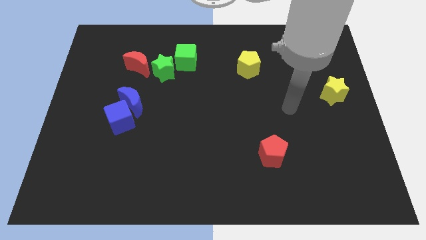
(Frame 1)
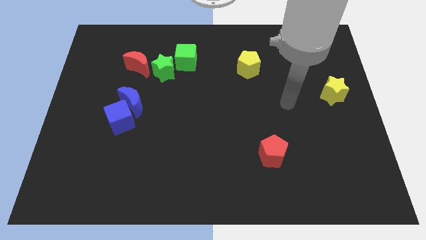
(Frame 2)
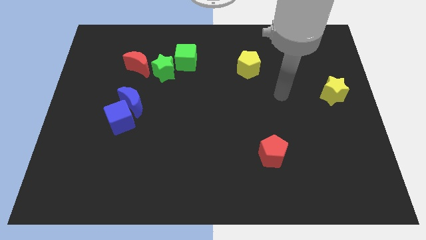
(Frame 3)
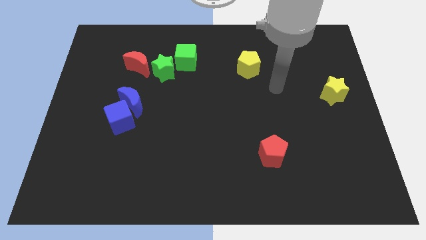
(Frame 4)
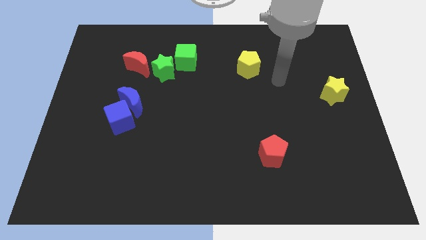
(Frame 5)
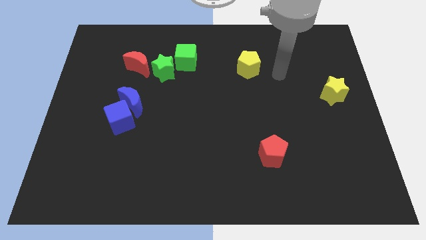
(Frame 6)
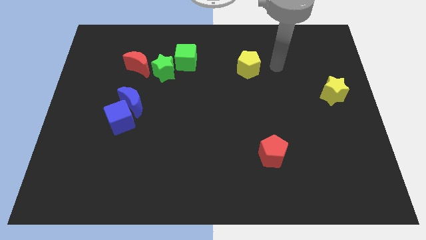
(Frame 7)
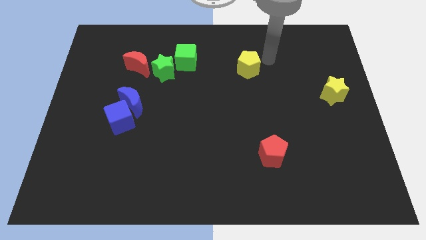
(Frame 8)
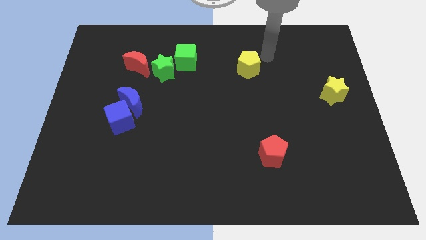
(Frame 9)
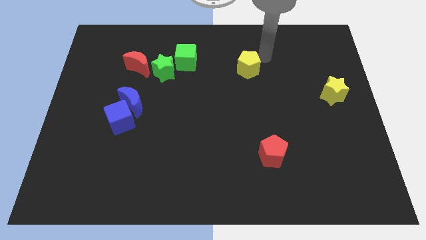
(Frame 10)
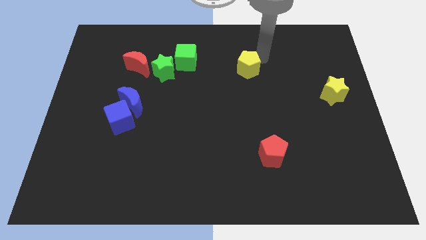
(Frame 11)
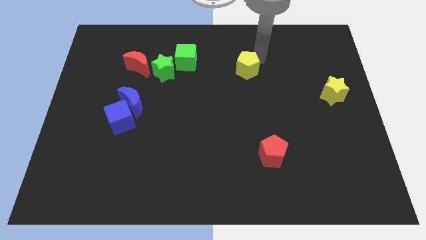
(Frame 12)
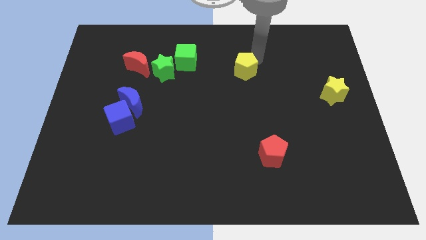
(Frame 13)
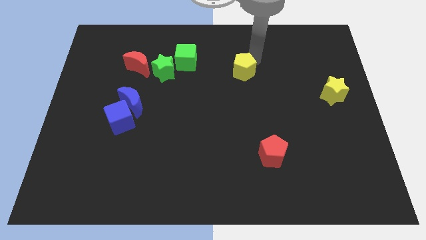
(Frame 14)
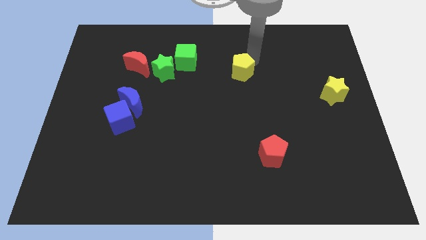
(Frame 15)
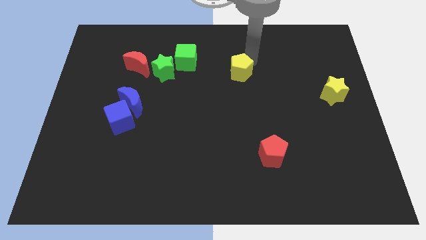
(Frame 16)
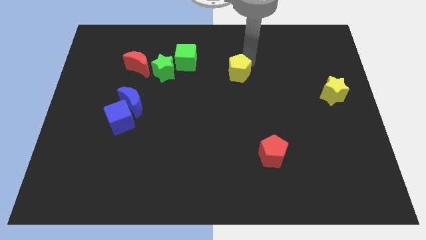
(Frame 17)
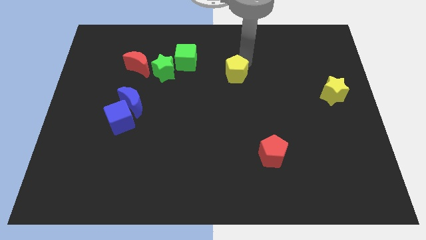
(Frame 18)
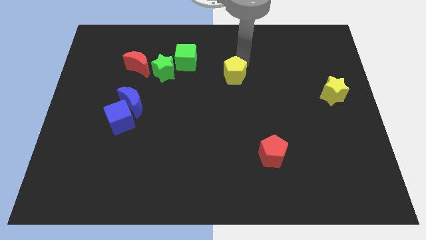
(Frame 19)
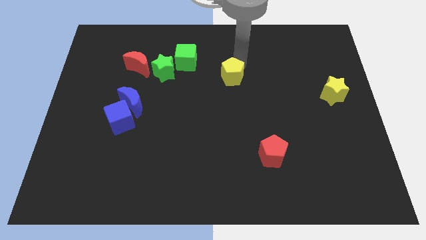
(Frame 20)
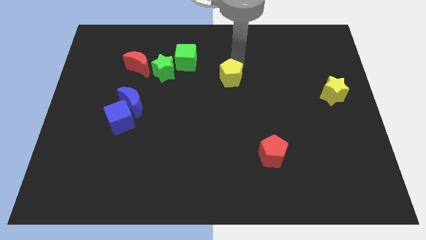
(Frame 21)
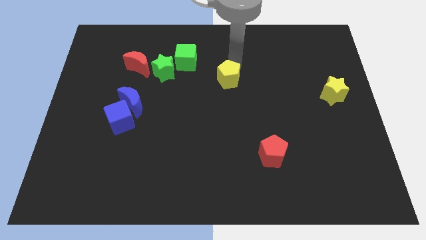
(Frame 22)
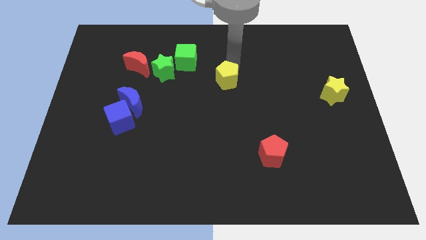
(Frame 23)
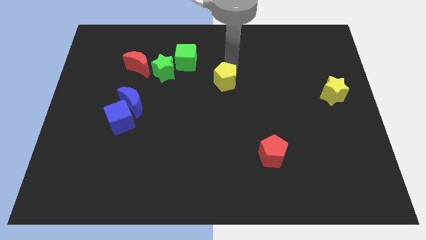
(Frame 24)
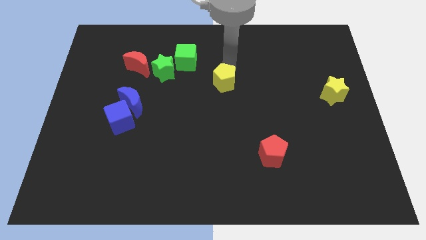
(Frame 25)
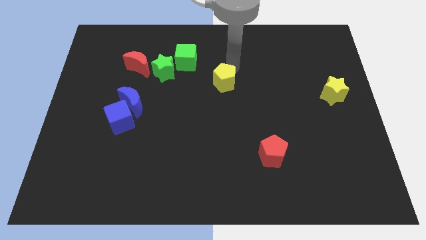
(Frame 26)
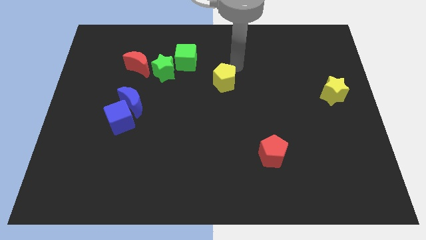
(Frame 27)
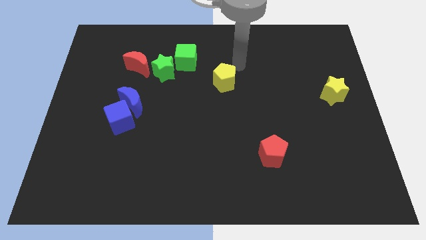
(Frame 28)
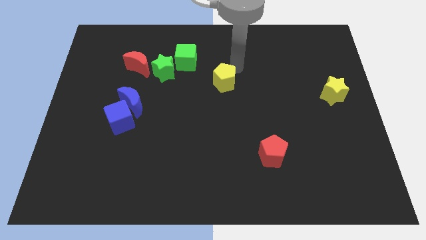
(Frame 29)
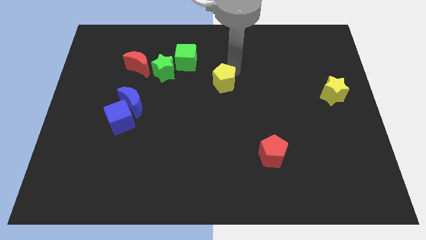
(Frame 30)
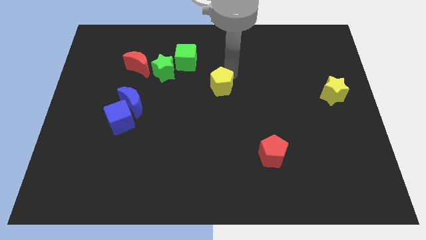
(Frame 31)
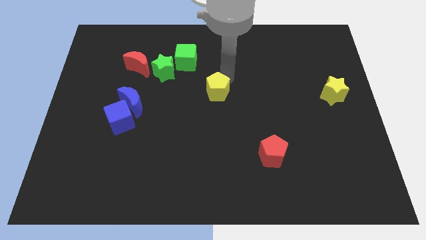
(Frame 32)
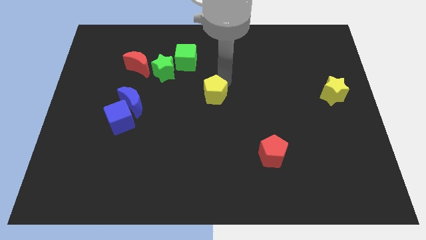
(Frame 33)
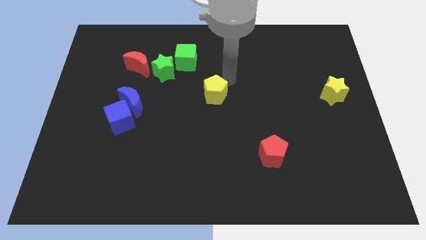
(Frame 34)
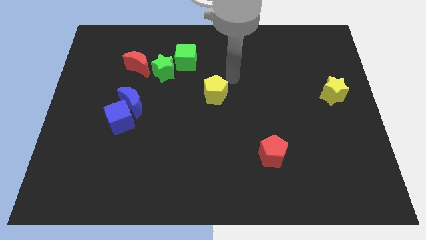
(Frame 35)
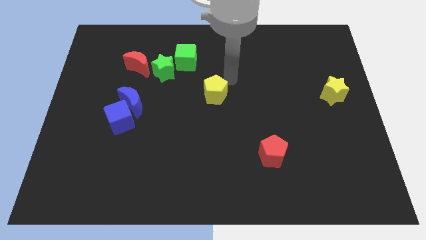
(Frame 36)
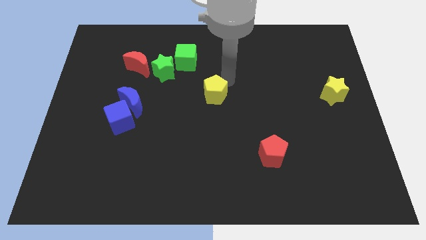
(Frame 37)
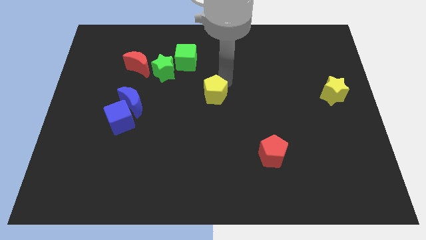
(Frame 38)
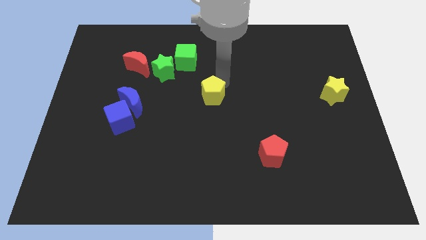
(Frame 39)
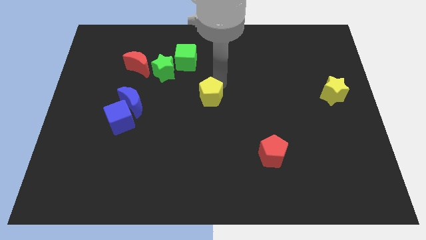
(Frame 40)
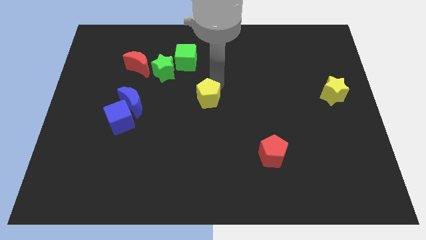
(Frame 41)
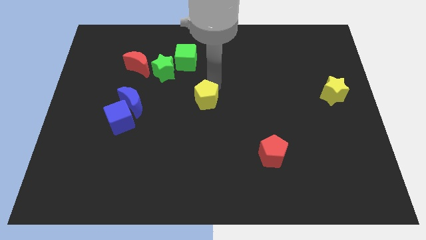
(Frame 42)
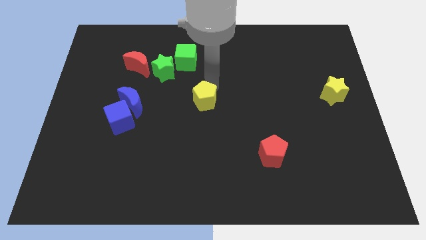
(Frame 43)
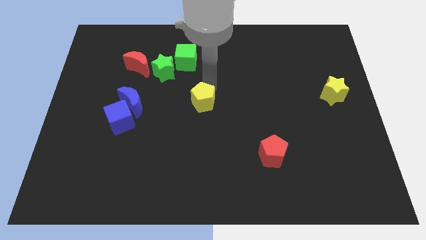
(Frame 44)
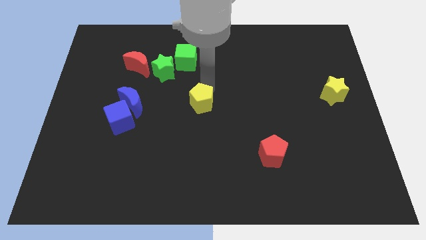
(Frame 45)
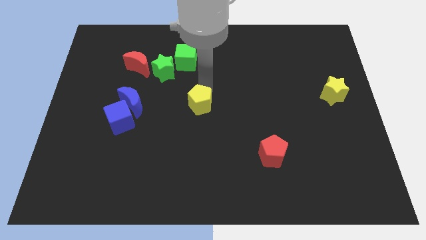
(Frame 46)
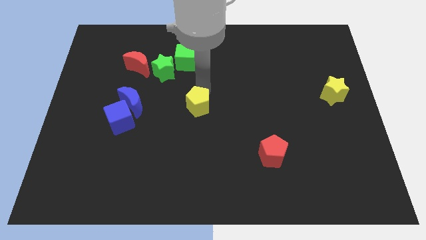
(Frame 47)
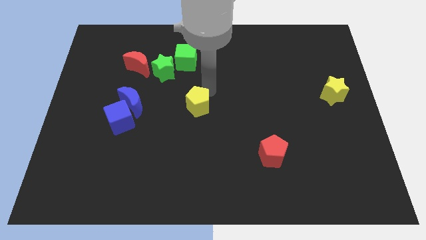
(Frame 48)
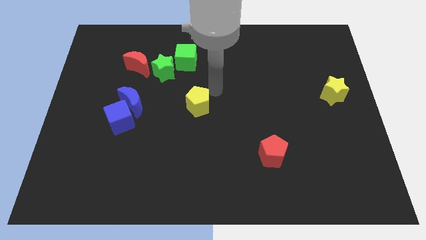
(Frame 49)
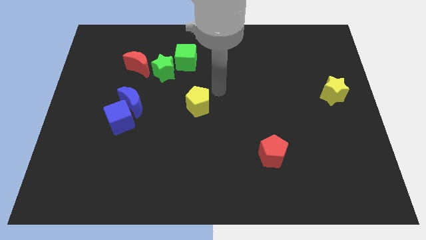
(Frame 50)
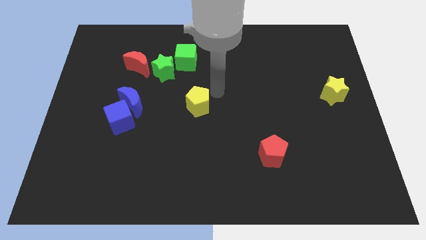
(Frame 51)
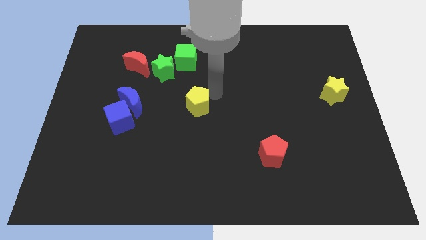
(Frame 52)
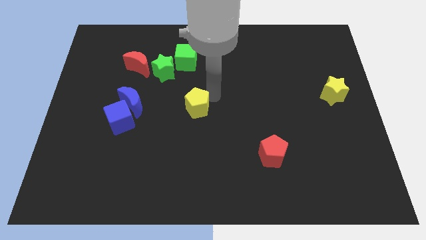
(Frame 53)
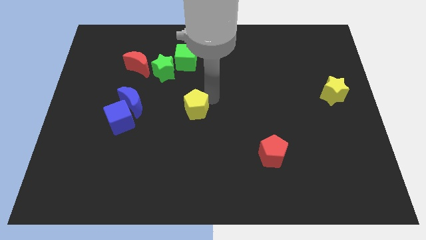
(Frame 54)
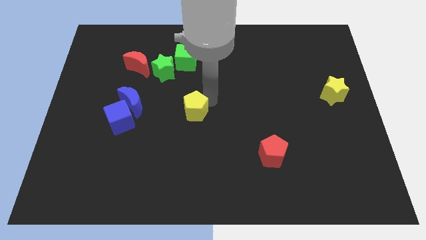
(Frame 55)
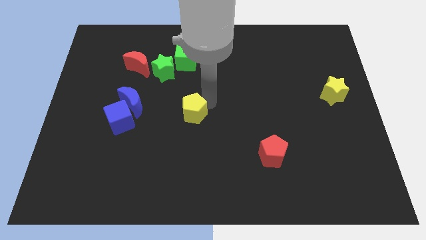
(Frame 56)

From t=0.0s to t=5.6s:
push the yellow pentagon downwards and to the left diagonally

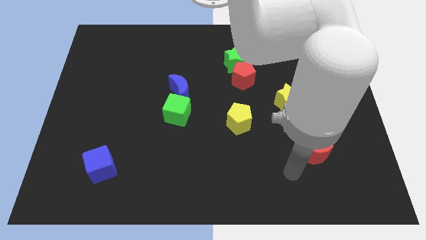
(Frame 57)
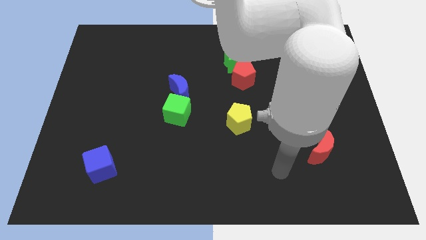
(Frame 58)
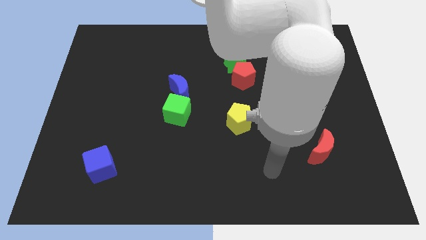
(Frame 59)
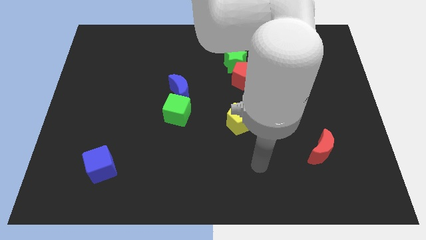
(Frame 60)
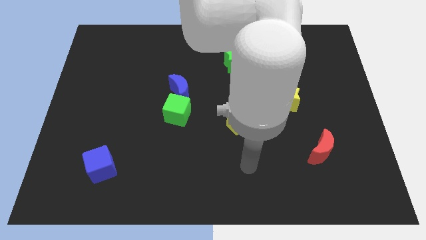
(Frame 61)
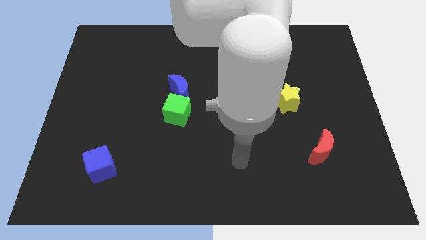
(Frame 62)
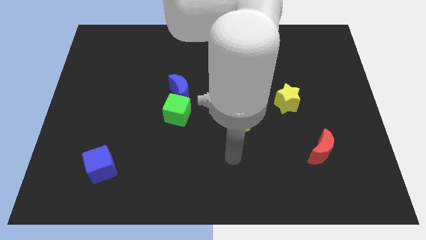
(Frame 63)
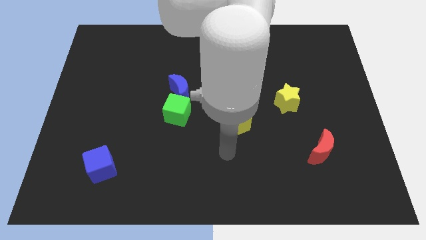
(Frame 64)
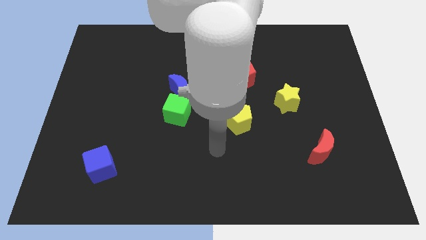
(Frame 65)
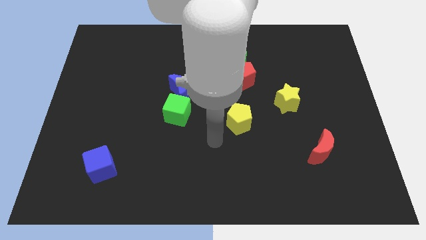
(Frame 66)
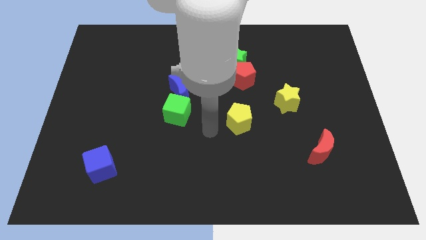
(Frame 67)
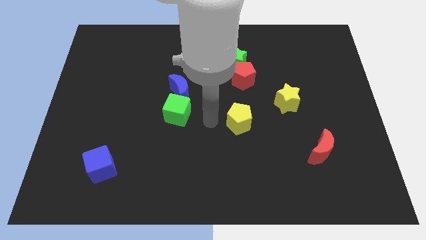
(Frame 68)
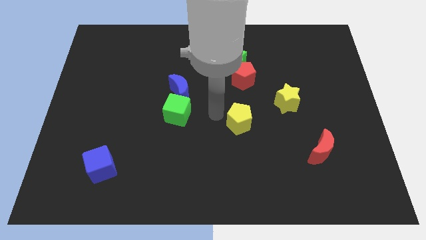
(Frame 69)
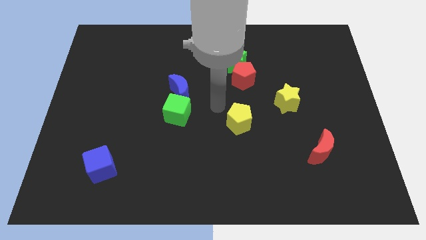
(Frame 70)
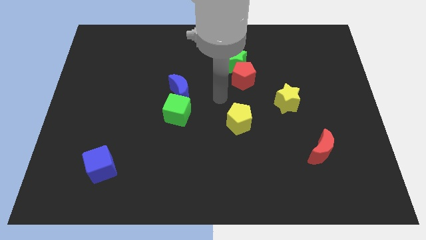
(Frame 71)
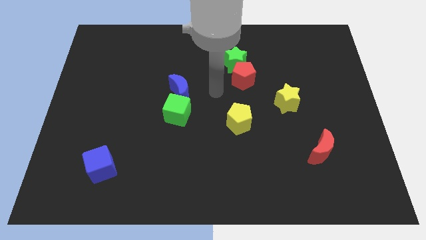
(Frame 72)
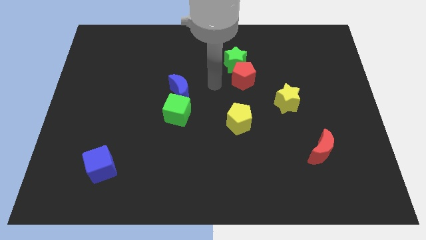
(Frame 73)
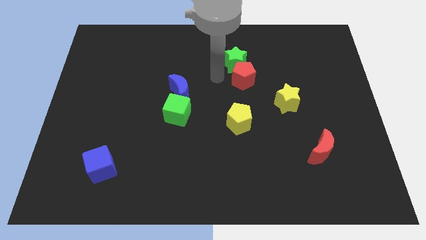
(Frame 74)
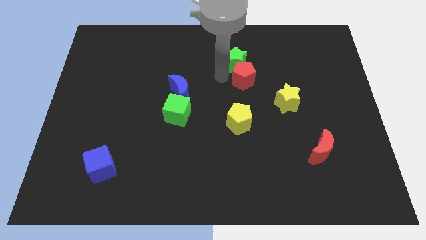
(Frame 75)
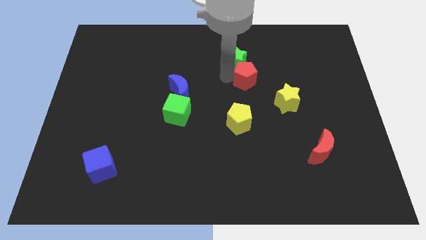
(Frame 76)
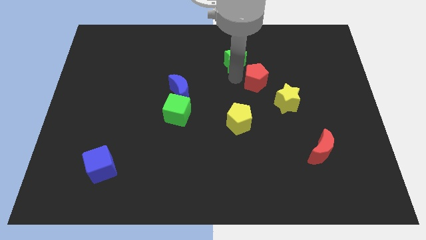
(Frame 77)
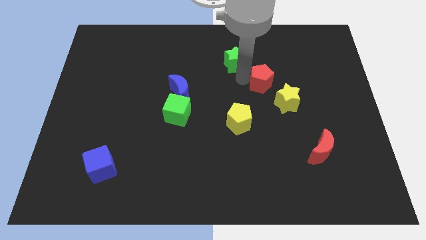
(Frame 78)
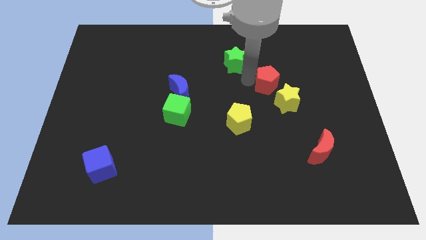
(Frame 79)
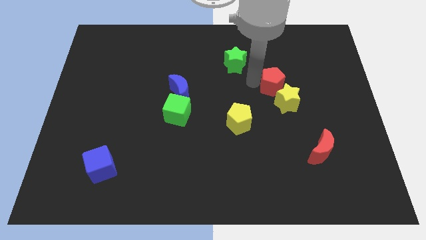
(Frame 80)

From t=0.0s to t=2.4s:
move the red pentagon somewhat to the right
